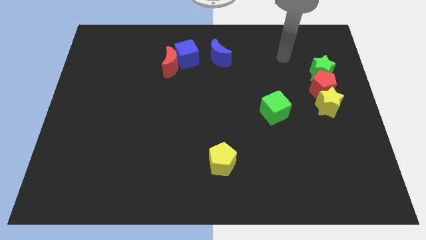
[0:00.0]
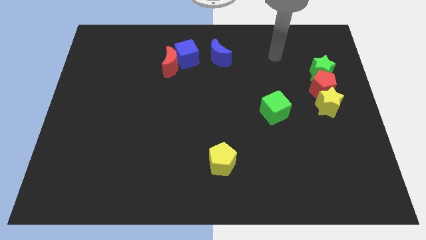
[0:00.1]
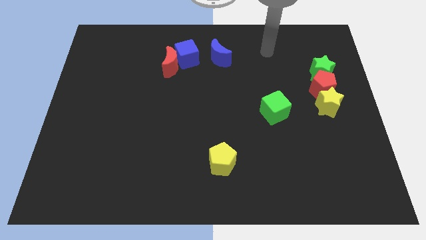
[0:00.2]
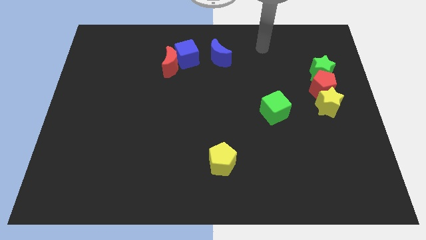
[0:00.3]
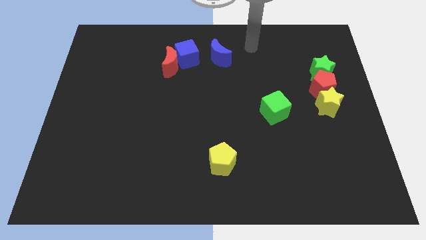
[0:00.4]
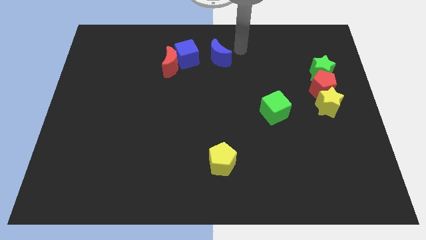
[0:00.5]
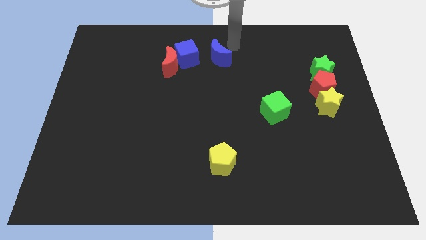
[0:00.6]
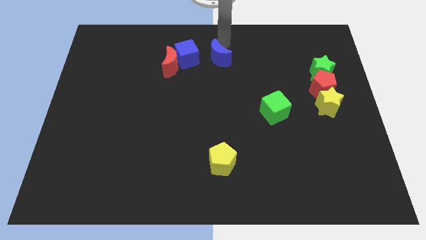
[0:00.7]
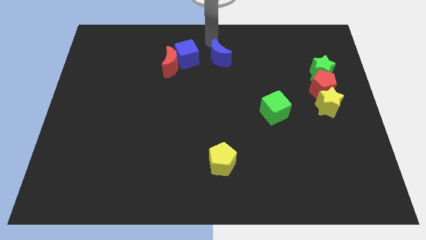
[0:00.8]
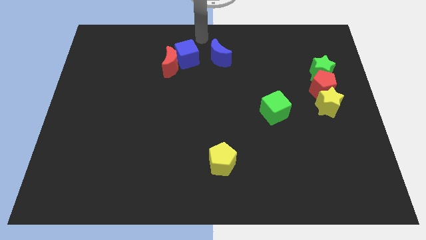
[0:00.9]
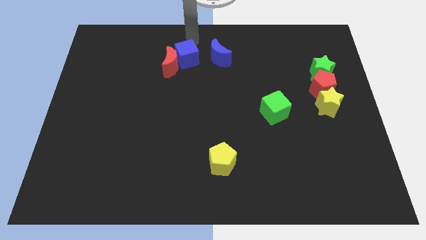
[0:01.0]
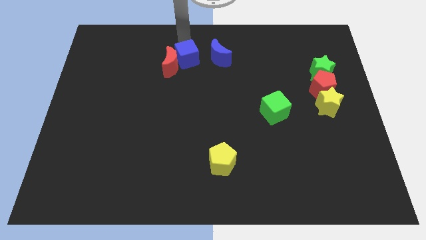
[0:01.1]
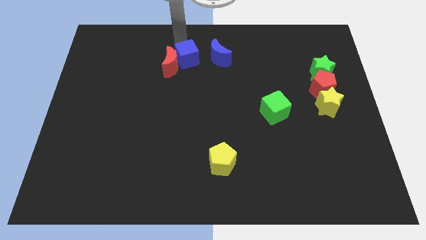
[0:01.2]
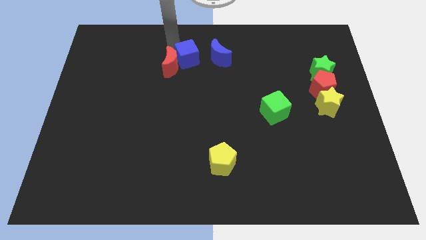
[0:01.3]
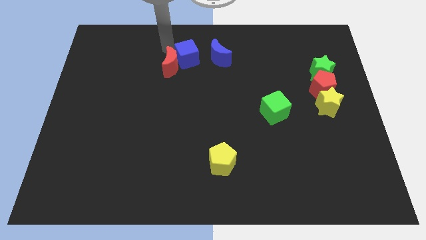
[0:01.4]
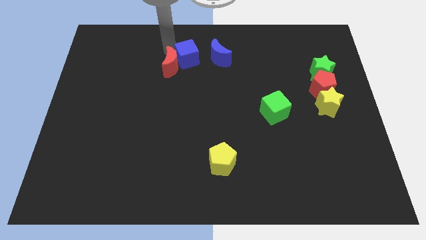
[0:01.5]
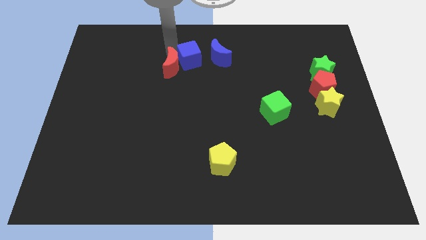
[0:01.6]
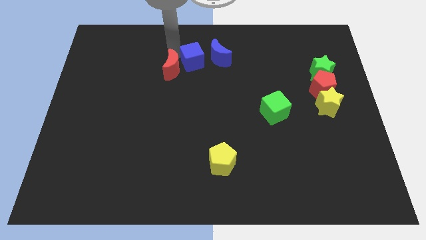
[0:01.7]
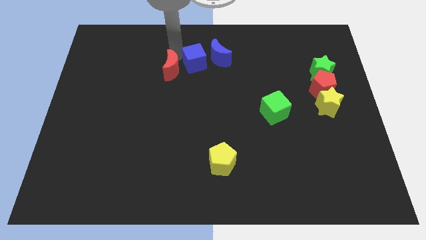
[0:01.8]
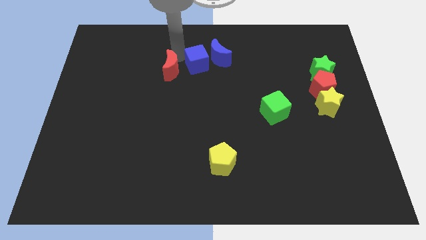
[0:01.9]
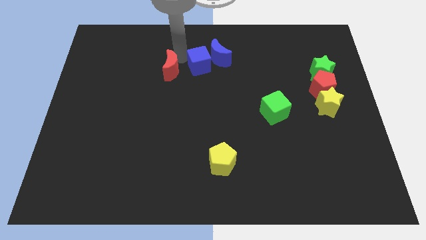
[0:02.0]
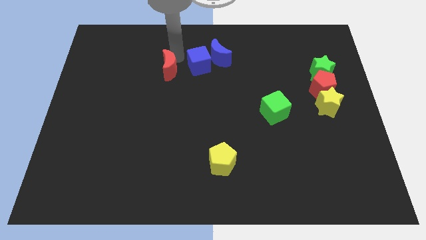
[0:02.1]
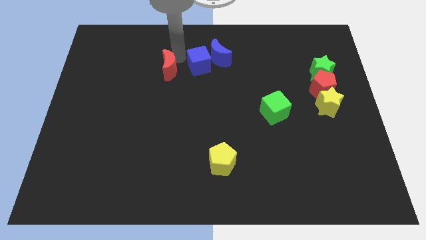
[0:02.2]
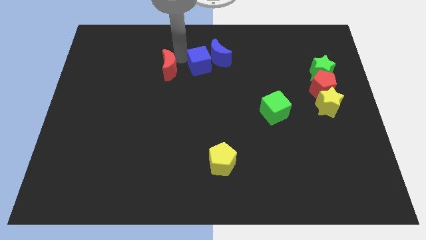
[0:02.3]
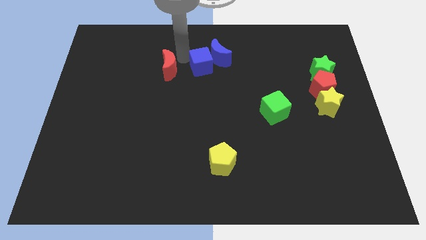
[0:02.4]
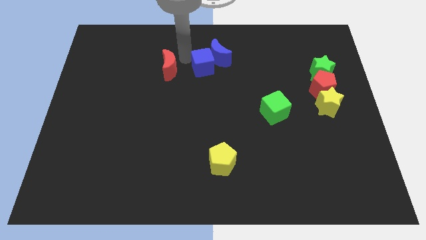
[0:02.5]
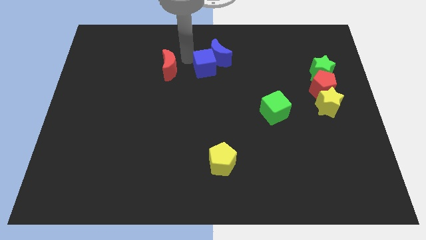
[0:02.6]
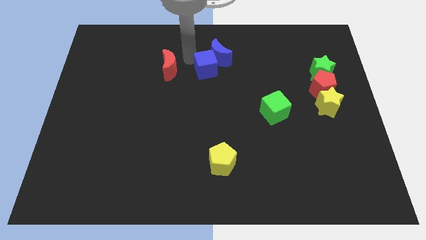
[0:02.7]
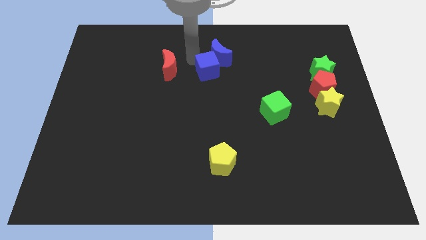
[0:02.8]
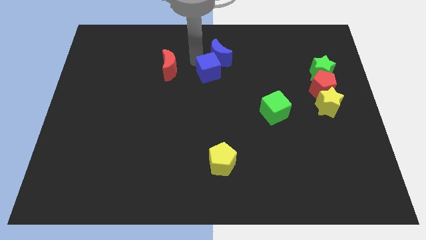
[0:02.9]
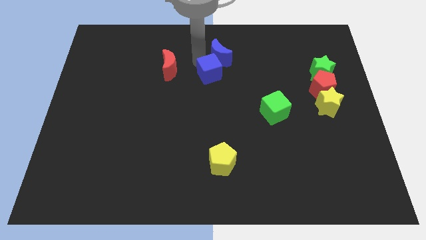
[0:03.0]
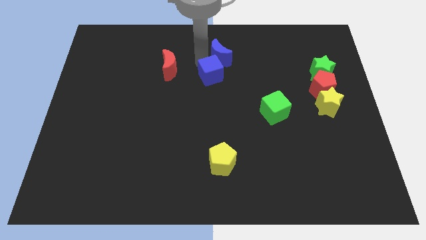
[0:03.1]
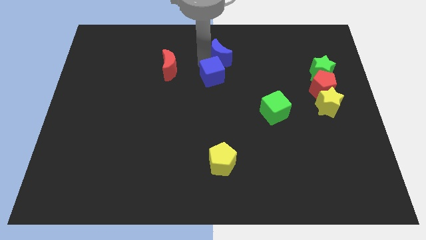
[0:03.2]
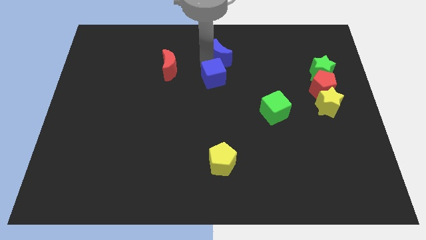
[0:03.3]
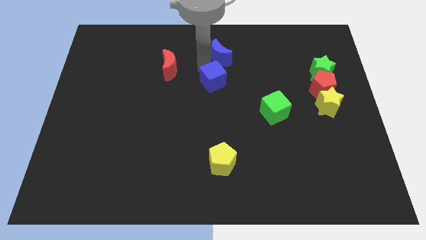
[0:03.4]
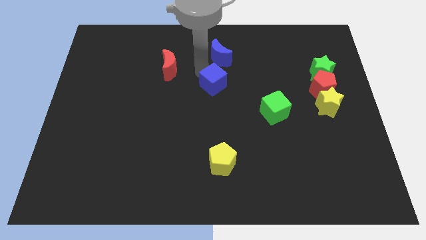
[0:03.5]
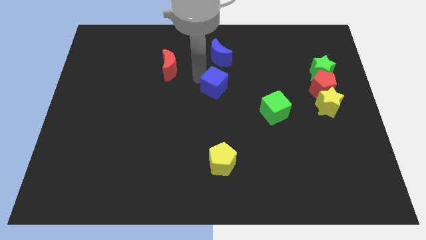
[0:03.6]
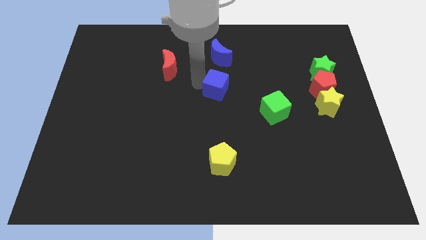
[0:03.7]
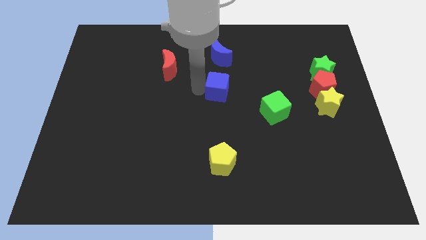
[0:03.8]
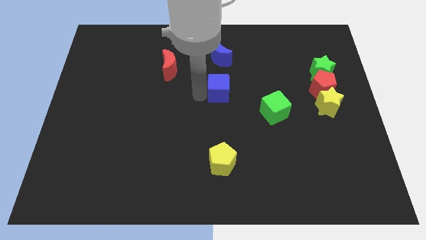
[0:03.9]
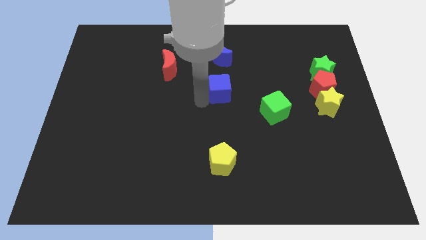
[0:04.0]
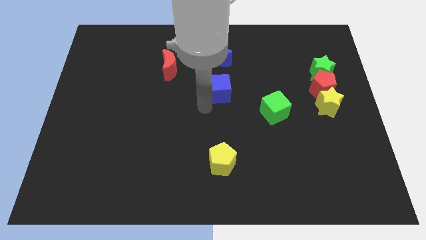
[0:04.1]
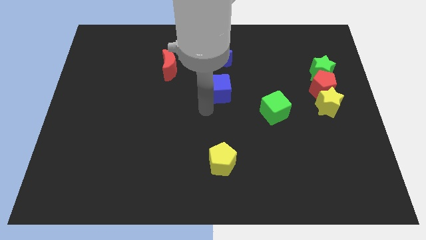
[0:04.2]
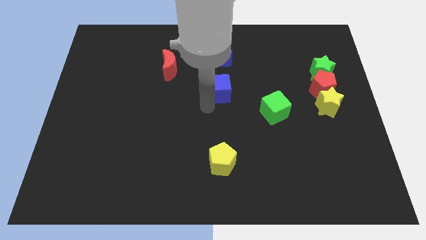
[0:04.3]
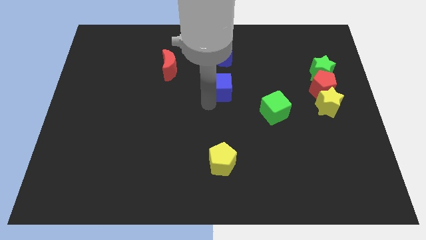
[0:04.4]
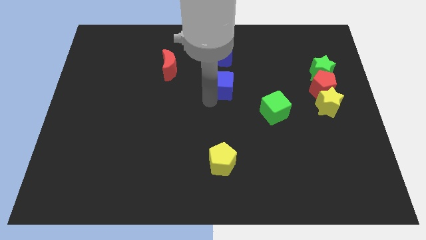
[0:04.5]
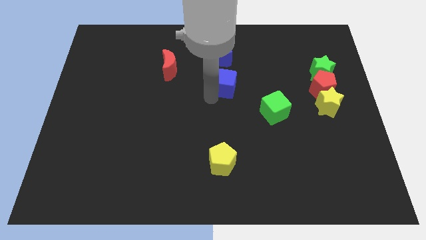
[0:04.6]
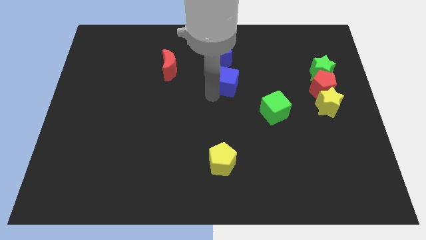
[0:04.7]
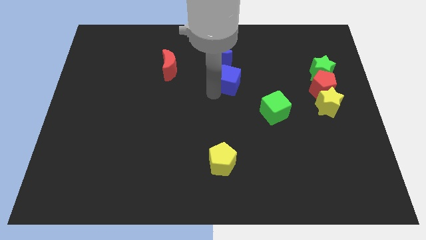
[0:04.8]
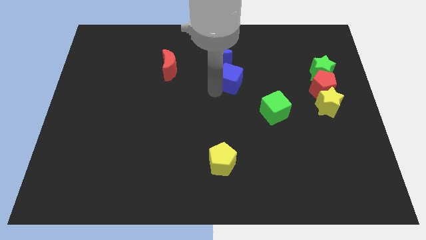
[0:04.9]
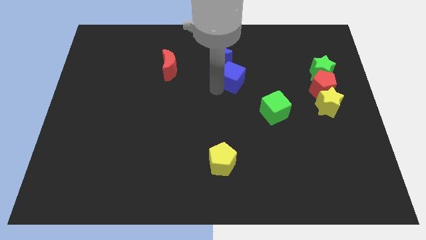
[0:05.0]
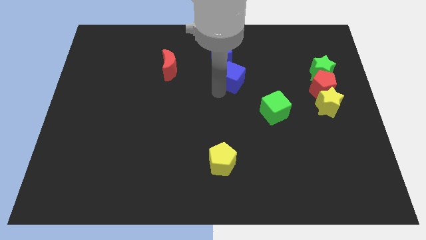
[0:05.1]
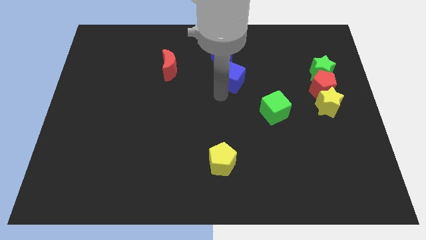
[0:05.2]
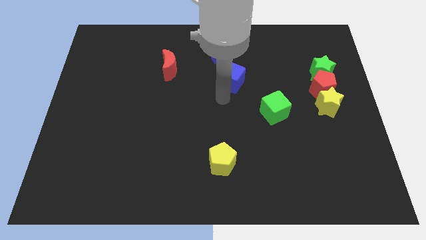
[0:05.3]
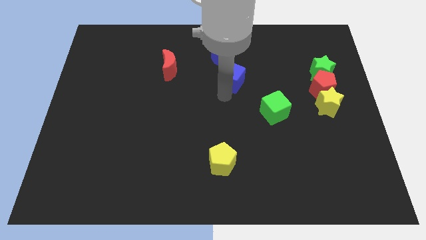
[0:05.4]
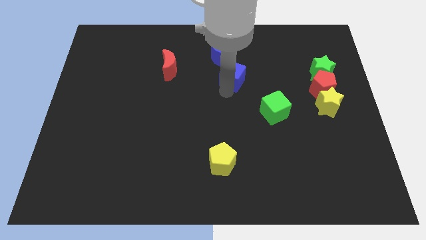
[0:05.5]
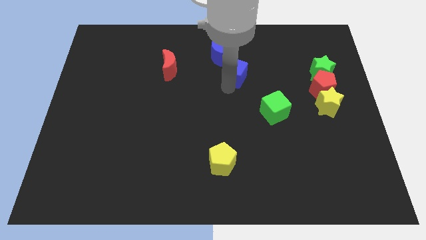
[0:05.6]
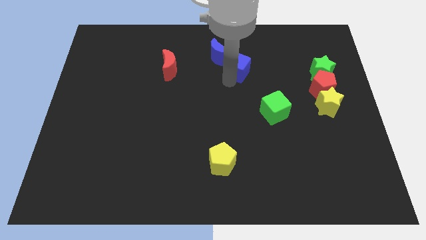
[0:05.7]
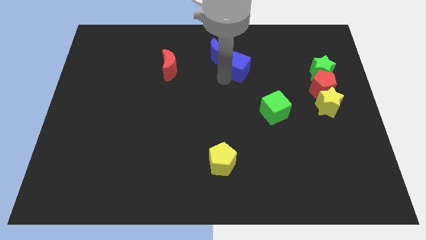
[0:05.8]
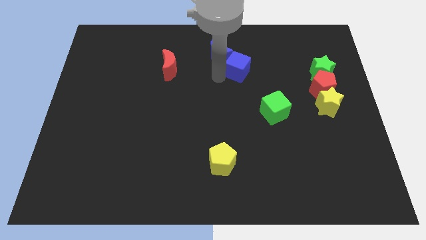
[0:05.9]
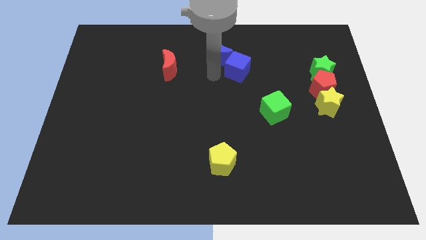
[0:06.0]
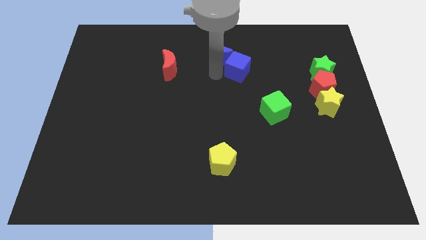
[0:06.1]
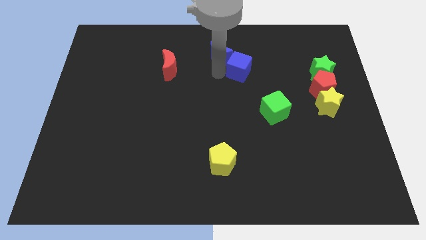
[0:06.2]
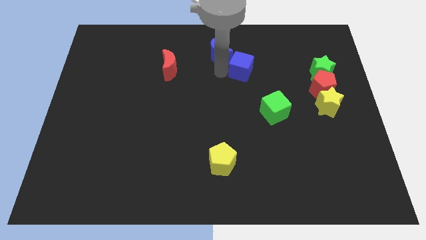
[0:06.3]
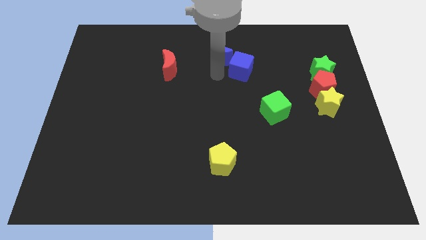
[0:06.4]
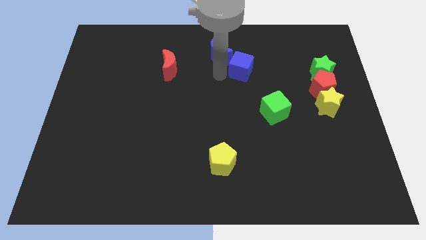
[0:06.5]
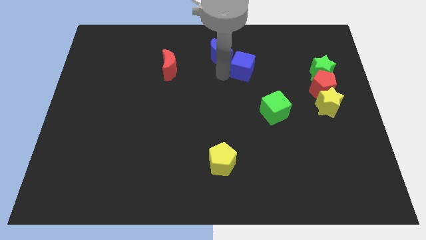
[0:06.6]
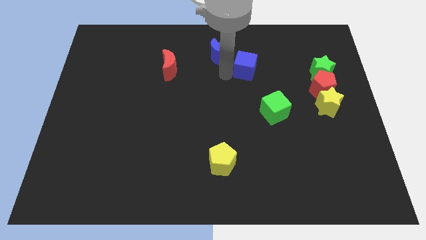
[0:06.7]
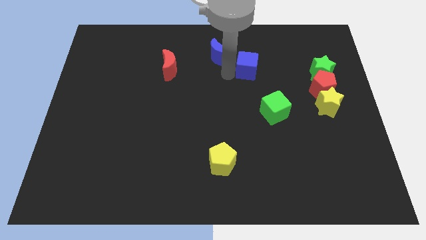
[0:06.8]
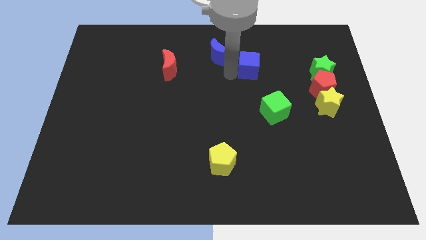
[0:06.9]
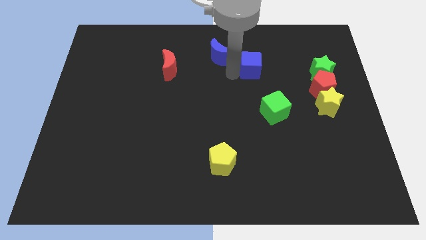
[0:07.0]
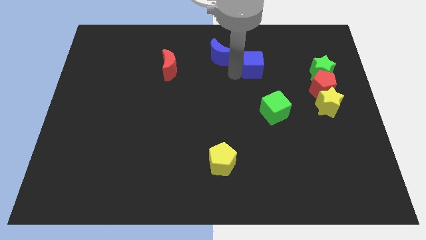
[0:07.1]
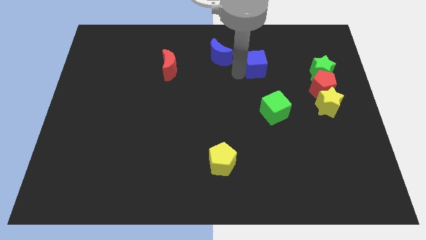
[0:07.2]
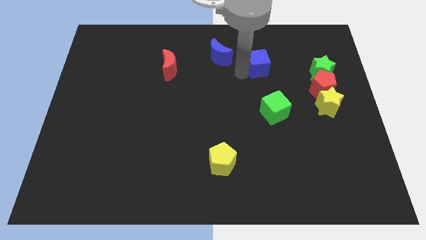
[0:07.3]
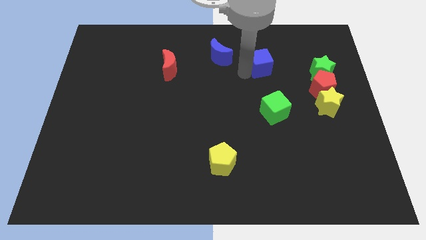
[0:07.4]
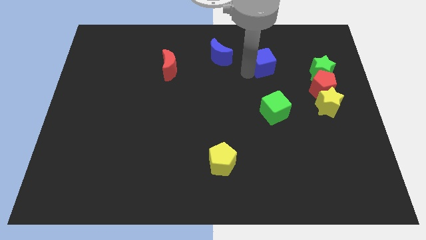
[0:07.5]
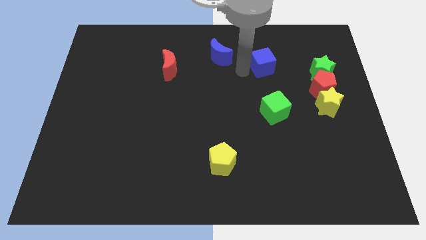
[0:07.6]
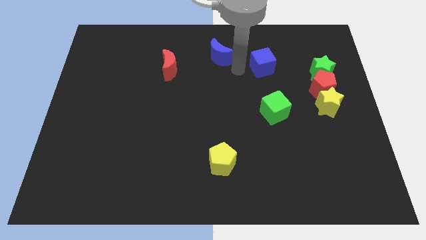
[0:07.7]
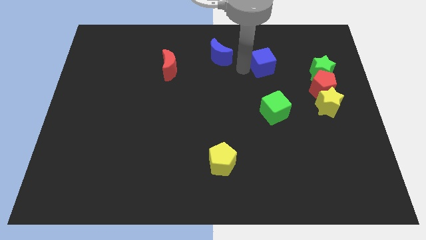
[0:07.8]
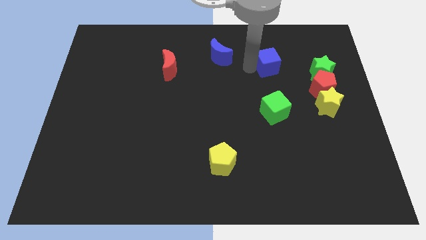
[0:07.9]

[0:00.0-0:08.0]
move the blue cube to the right
